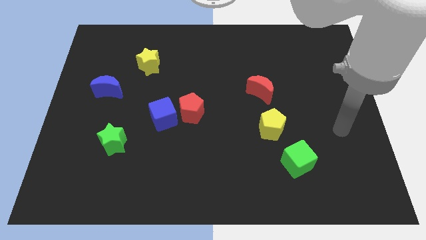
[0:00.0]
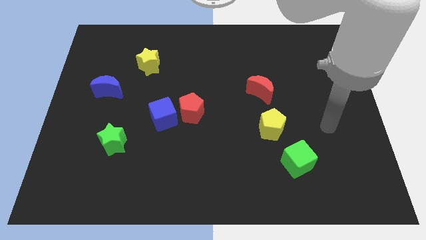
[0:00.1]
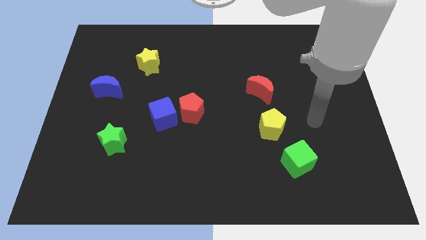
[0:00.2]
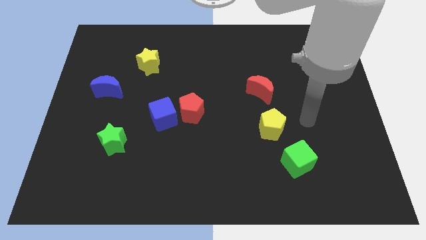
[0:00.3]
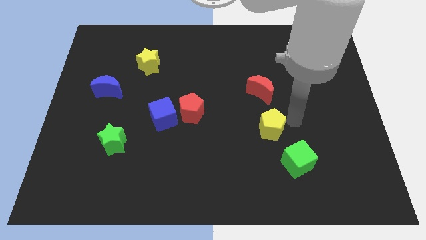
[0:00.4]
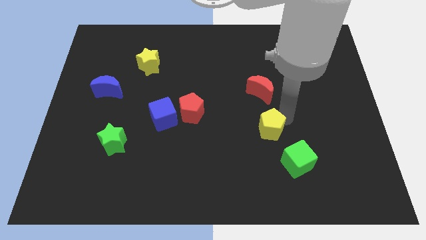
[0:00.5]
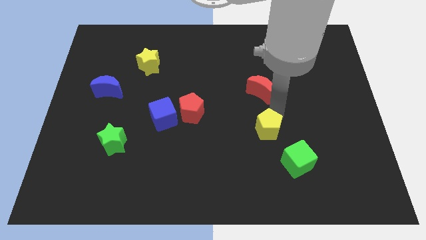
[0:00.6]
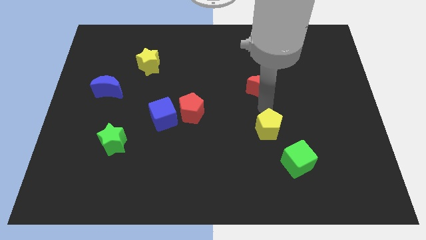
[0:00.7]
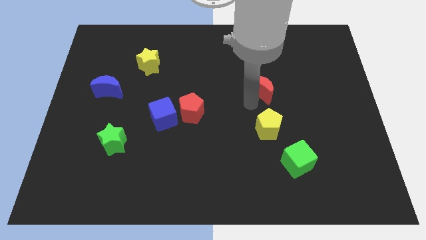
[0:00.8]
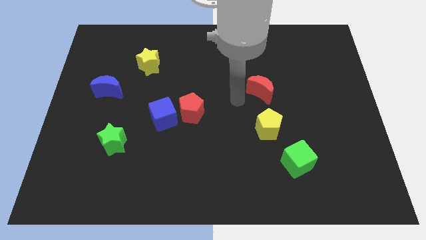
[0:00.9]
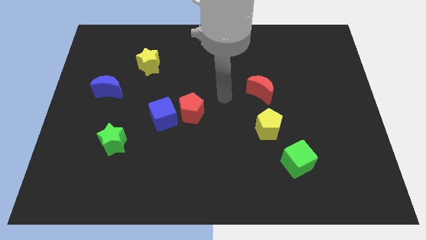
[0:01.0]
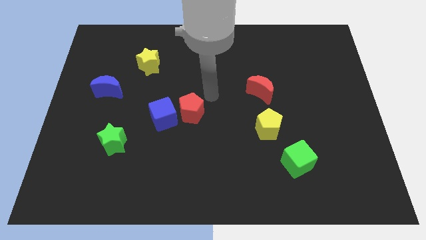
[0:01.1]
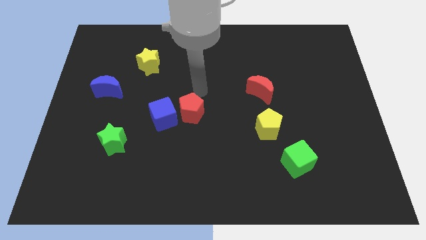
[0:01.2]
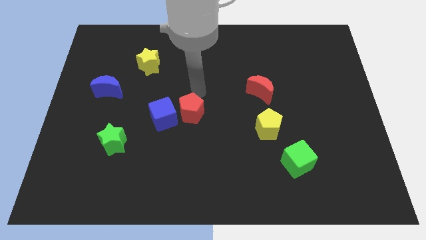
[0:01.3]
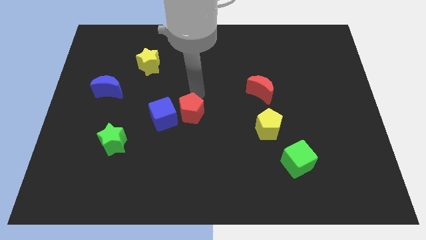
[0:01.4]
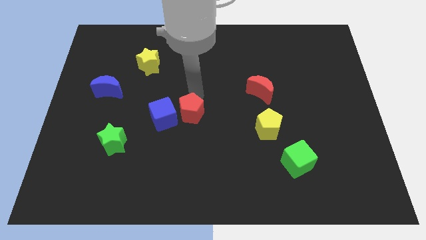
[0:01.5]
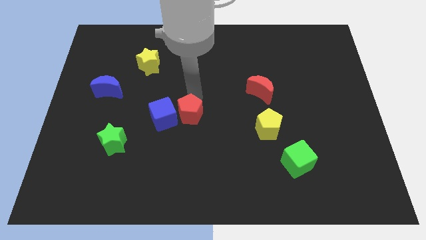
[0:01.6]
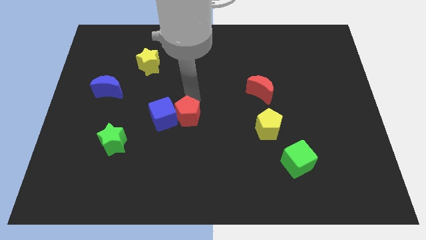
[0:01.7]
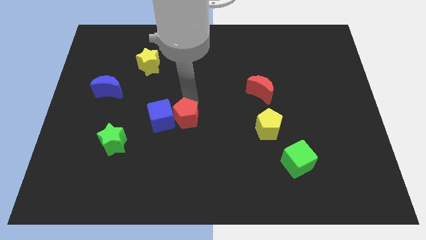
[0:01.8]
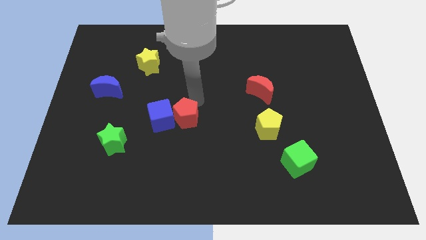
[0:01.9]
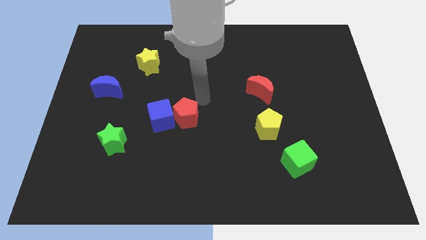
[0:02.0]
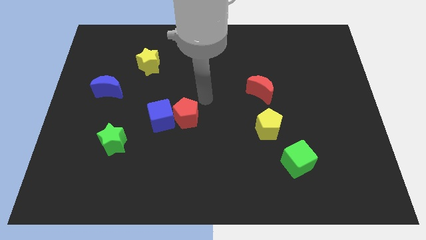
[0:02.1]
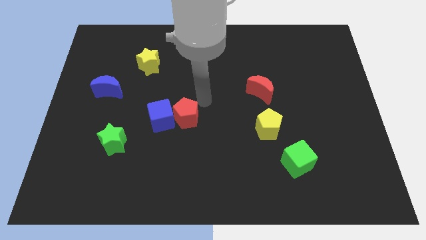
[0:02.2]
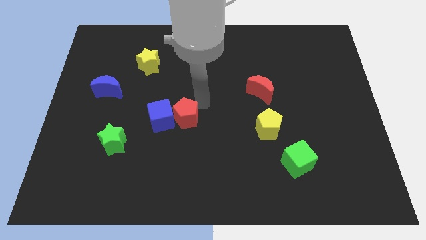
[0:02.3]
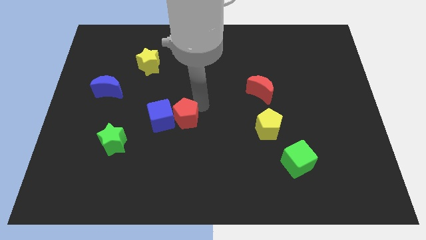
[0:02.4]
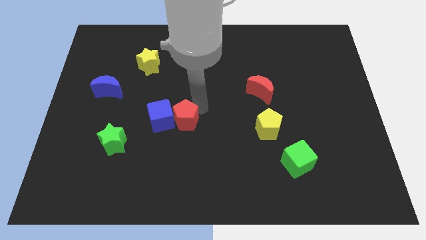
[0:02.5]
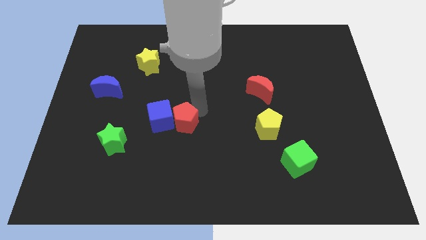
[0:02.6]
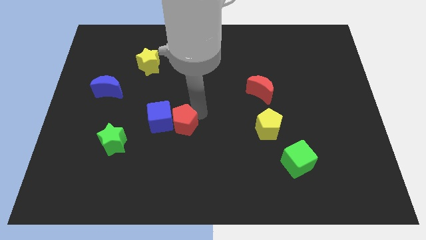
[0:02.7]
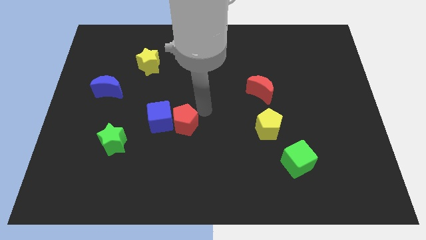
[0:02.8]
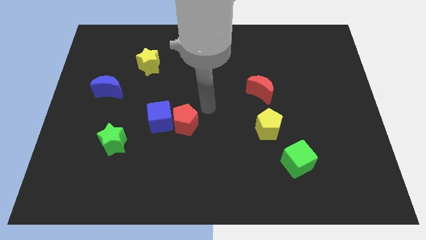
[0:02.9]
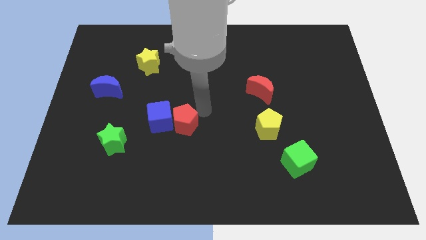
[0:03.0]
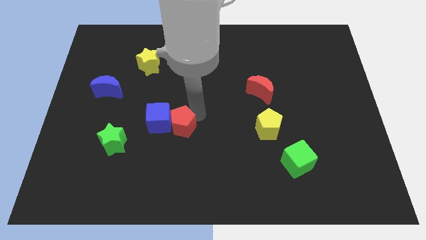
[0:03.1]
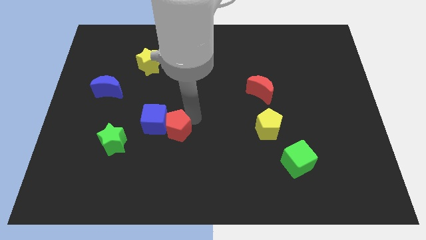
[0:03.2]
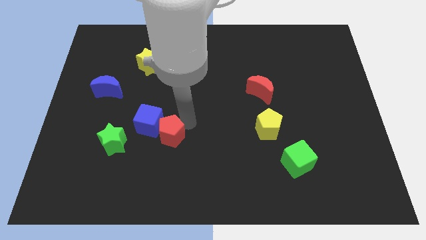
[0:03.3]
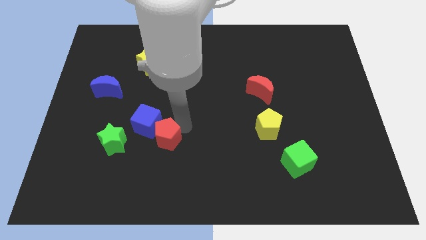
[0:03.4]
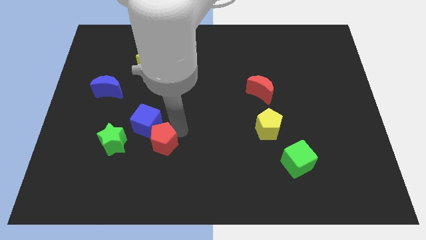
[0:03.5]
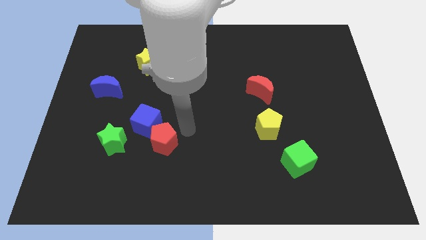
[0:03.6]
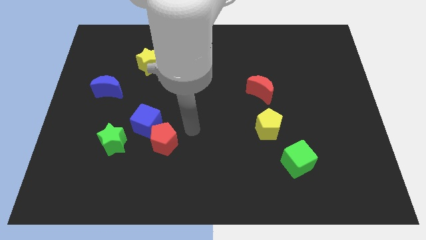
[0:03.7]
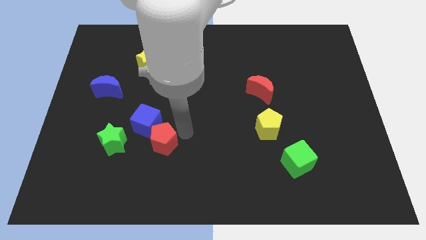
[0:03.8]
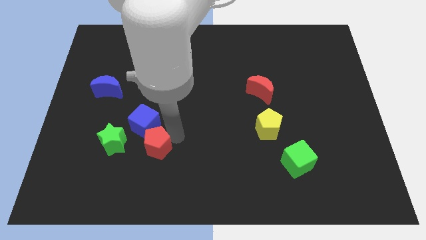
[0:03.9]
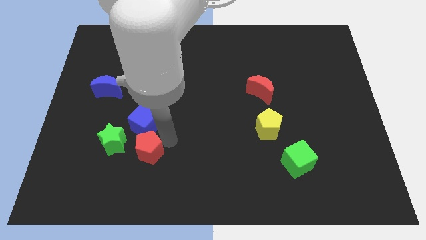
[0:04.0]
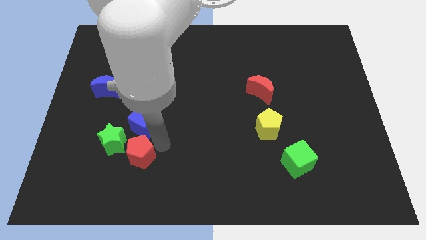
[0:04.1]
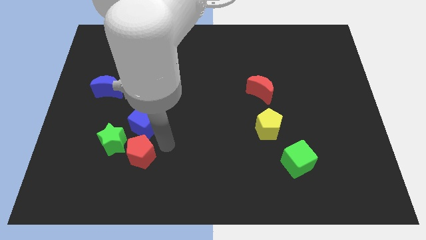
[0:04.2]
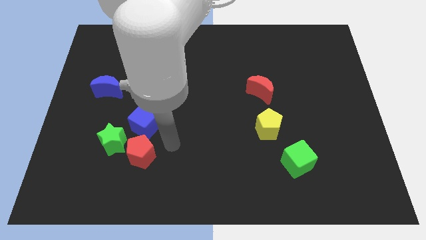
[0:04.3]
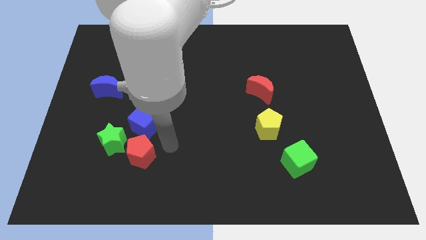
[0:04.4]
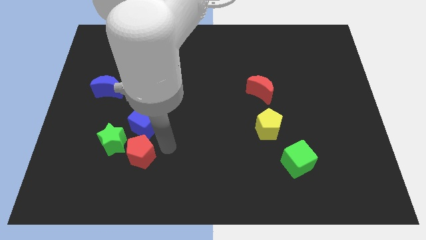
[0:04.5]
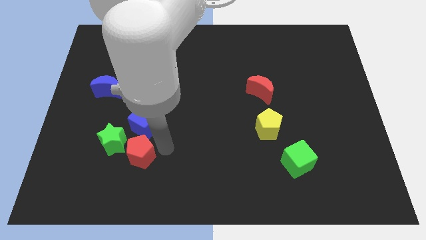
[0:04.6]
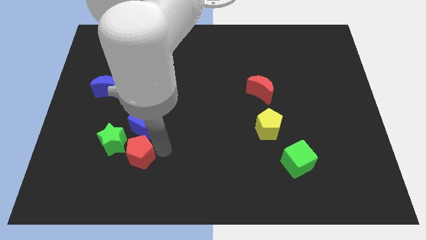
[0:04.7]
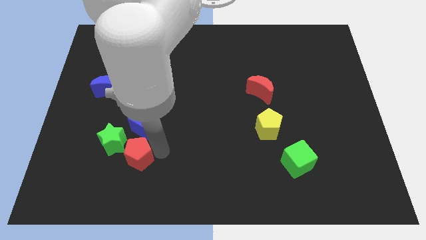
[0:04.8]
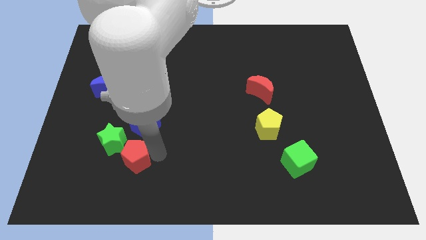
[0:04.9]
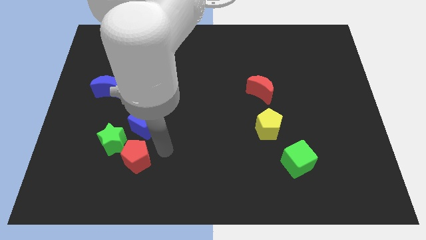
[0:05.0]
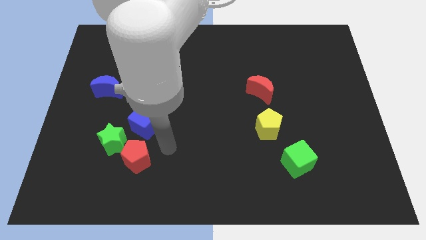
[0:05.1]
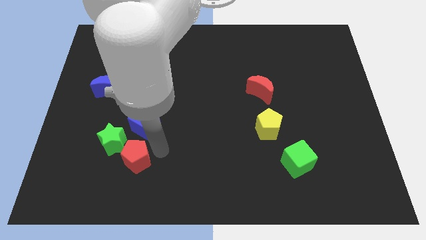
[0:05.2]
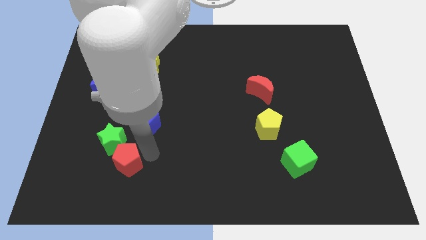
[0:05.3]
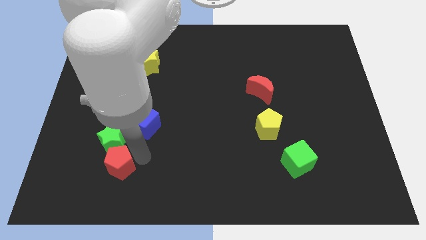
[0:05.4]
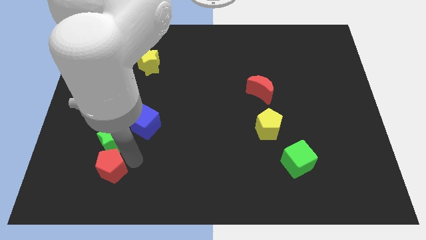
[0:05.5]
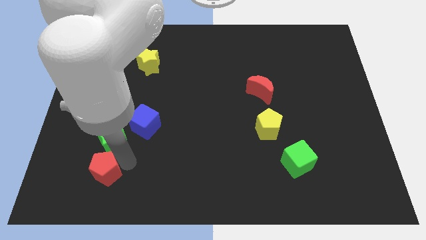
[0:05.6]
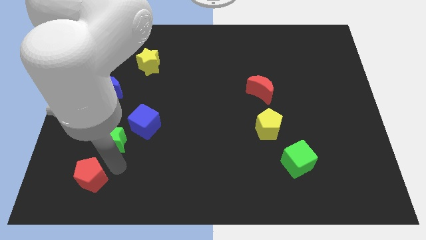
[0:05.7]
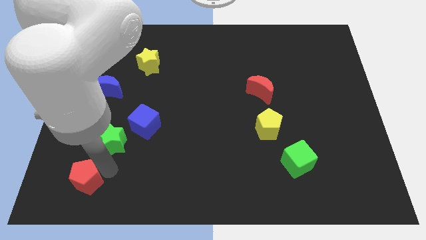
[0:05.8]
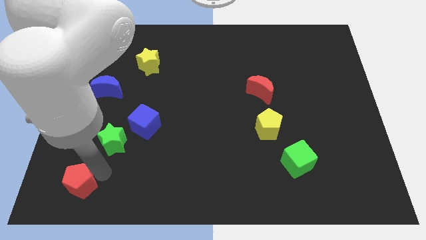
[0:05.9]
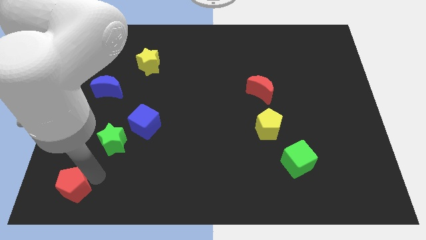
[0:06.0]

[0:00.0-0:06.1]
slide the red pentagon to the bottom left corner
